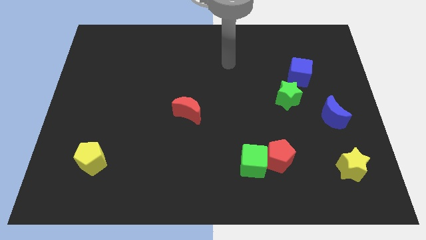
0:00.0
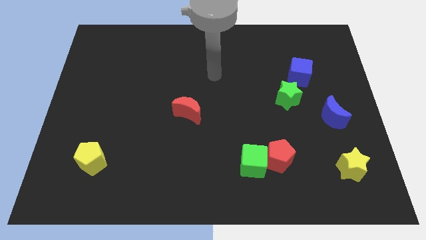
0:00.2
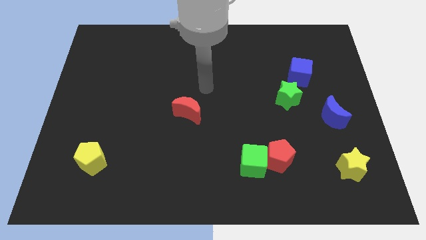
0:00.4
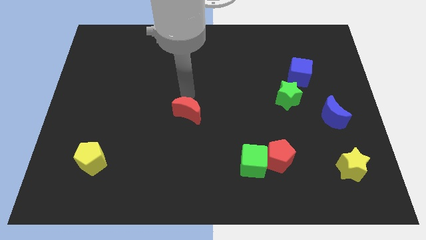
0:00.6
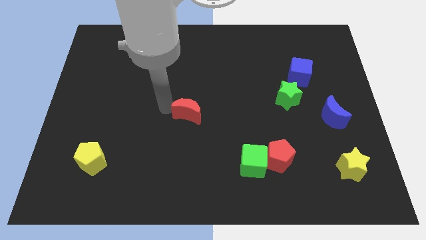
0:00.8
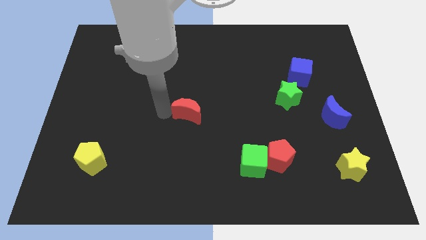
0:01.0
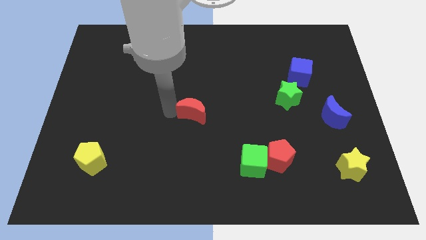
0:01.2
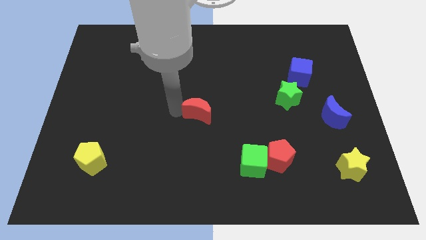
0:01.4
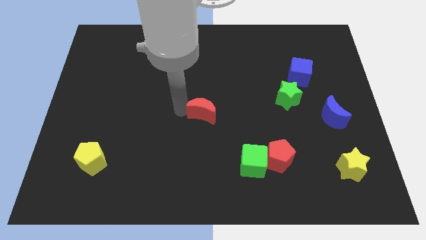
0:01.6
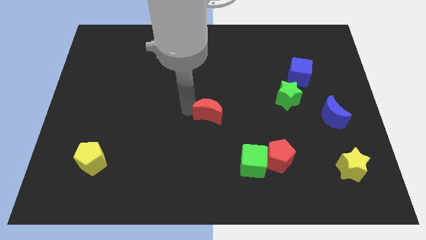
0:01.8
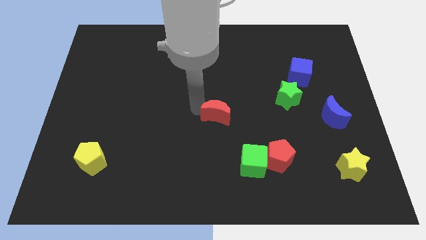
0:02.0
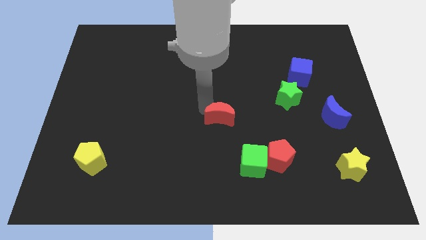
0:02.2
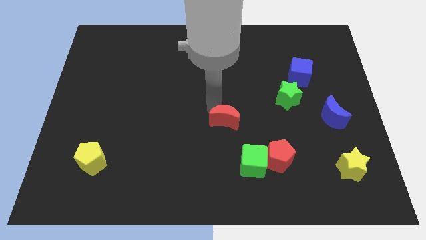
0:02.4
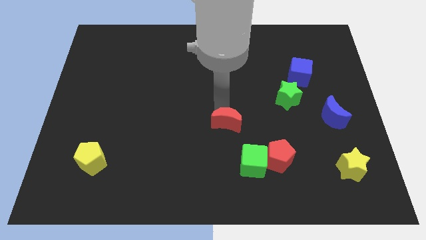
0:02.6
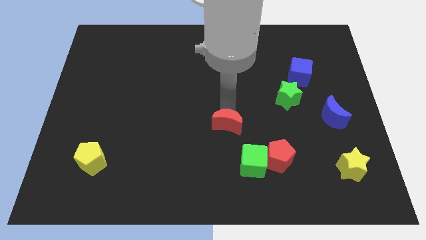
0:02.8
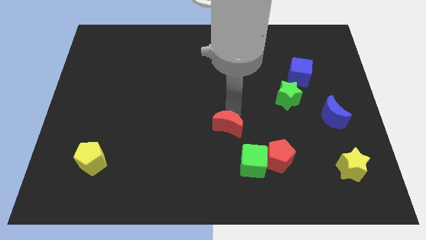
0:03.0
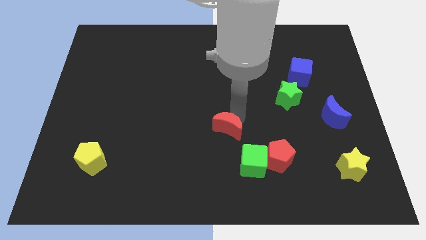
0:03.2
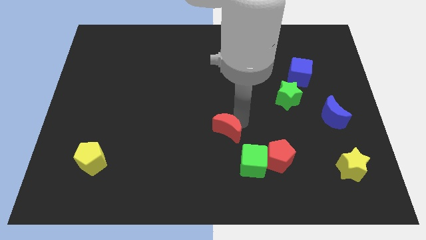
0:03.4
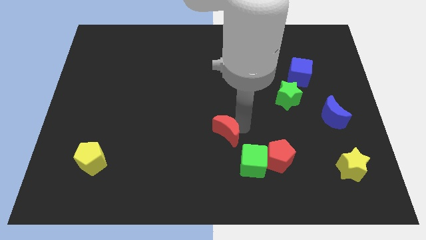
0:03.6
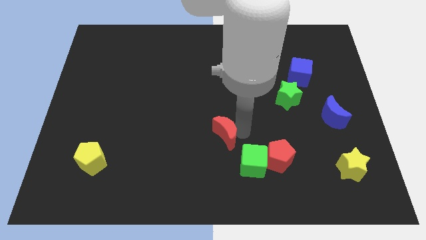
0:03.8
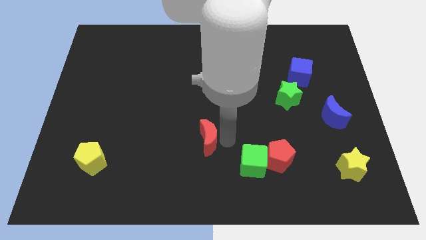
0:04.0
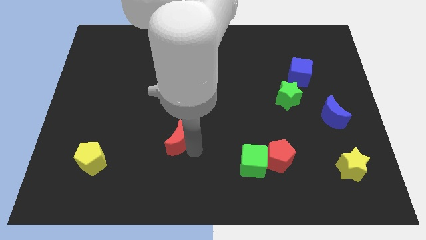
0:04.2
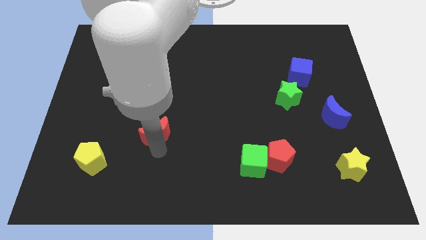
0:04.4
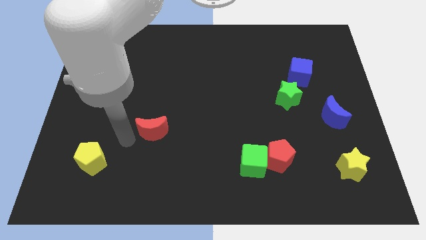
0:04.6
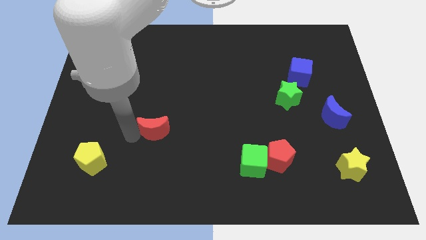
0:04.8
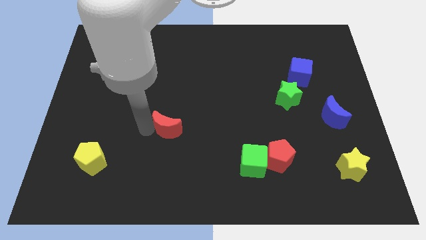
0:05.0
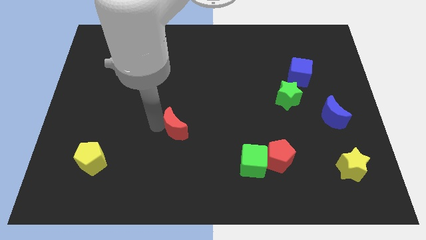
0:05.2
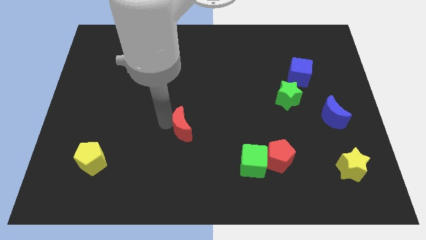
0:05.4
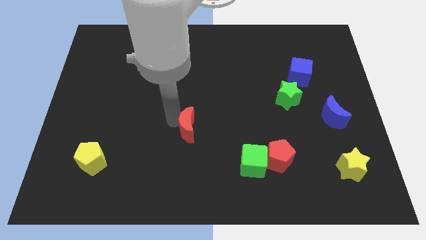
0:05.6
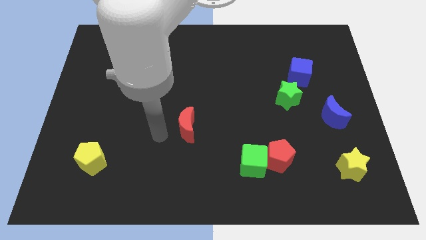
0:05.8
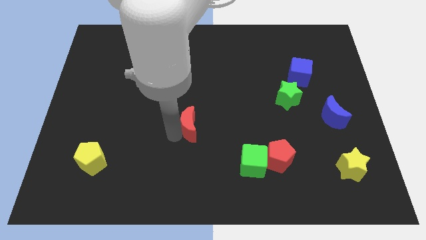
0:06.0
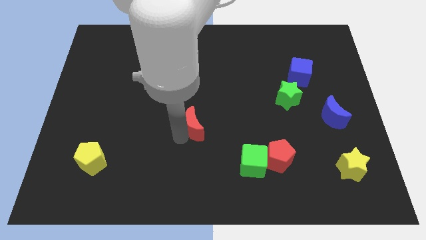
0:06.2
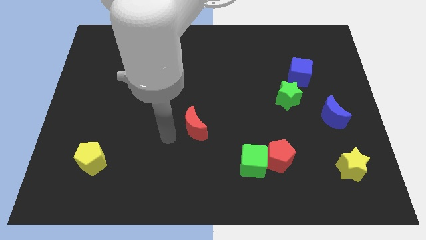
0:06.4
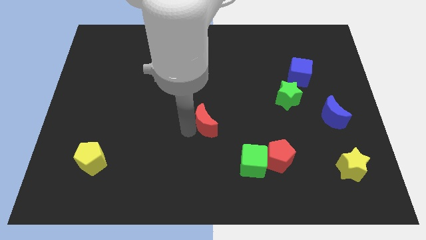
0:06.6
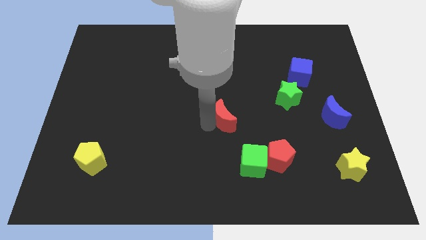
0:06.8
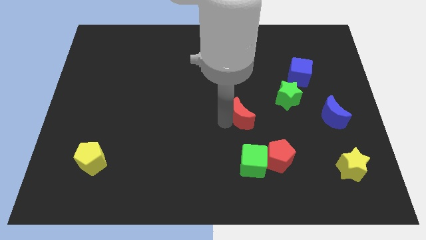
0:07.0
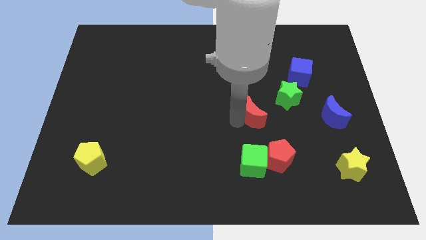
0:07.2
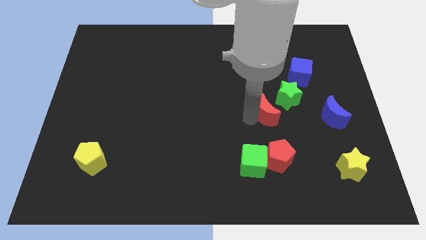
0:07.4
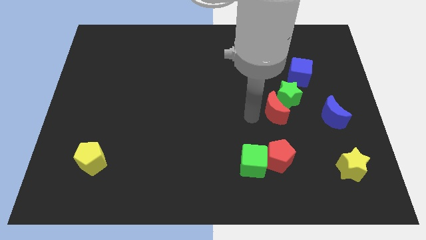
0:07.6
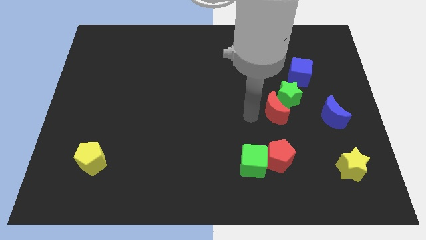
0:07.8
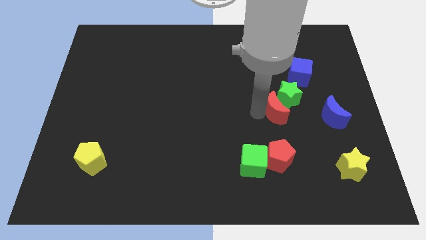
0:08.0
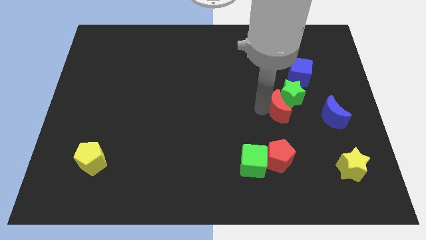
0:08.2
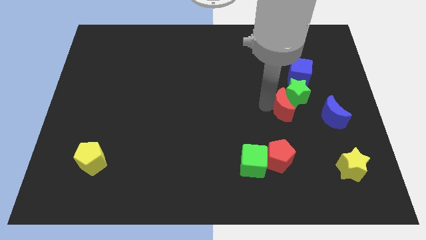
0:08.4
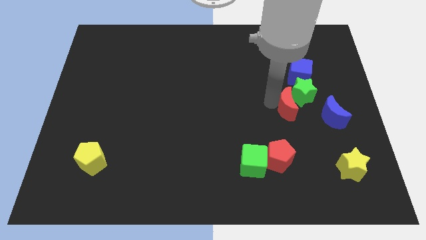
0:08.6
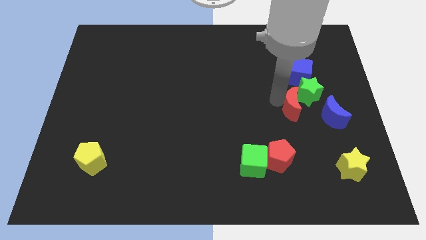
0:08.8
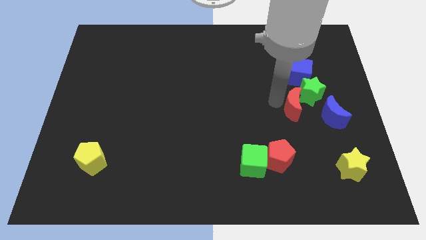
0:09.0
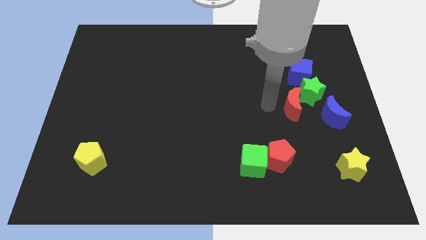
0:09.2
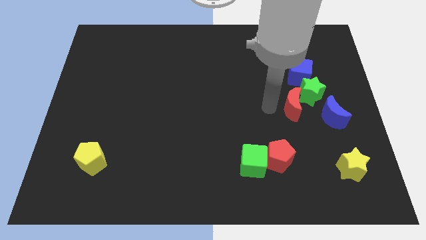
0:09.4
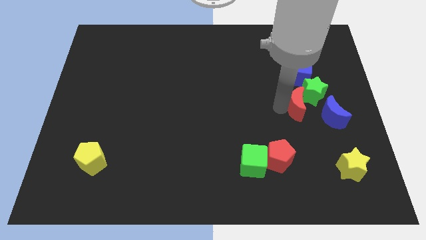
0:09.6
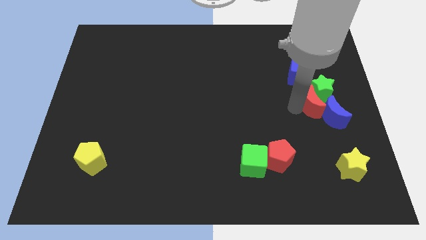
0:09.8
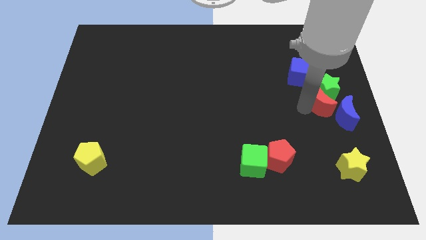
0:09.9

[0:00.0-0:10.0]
move the red moon to the right side

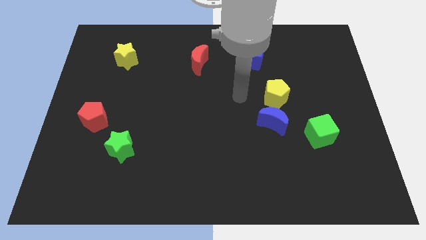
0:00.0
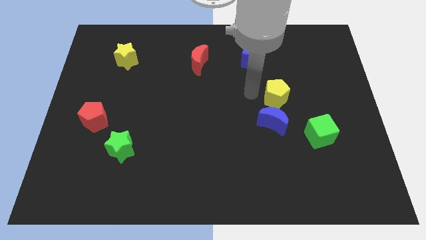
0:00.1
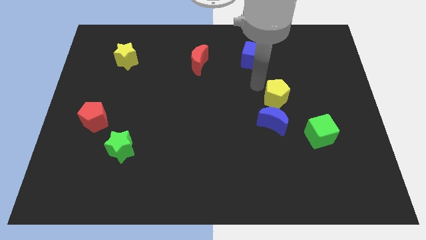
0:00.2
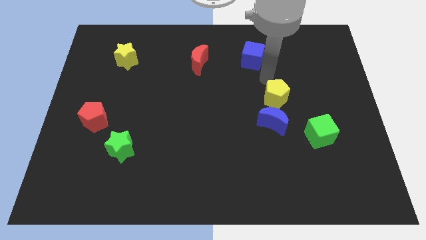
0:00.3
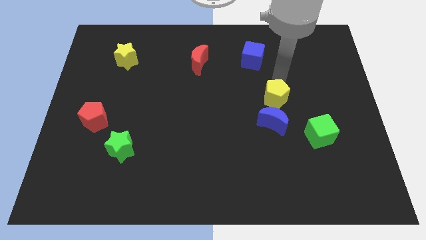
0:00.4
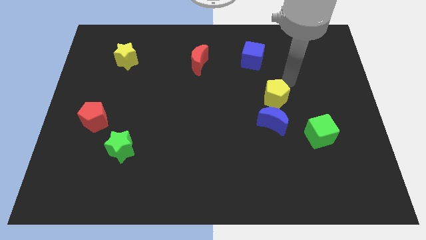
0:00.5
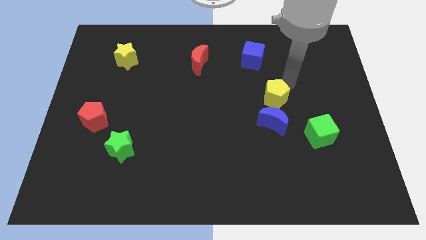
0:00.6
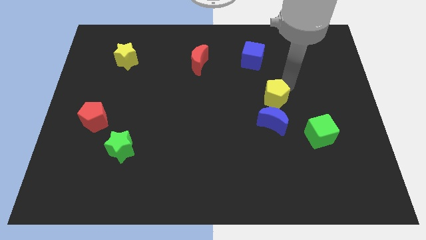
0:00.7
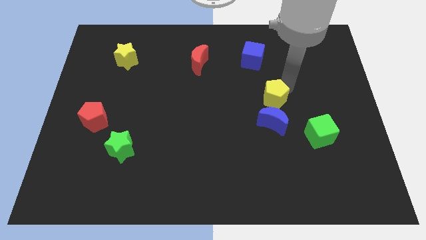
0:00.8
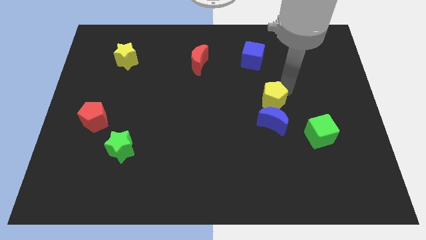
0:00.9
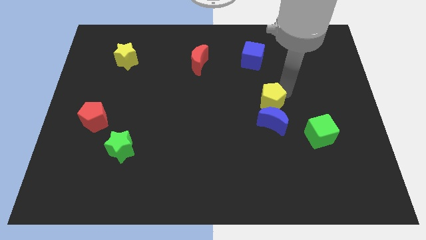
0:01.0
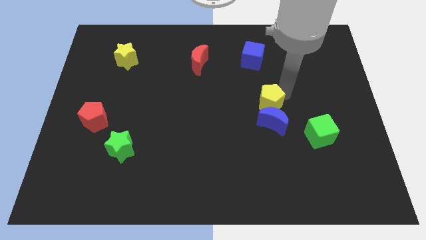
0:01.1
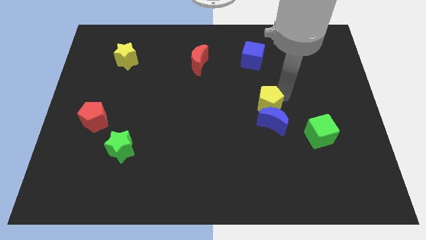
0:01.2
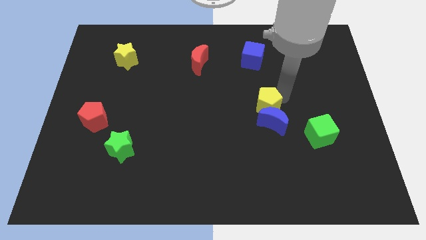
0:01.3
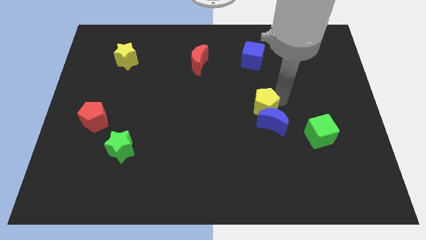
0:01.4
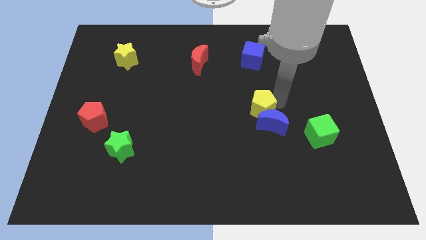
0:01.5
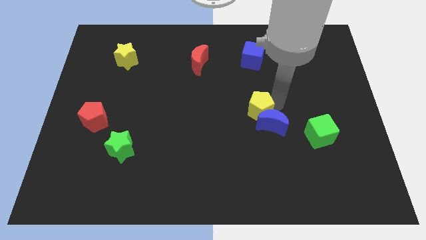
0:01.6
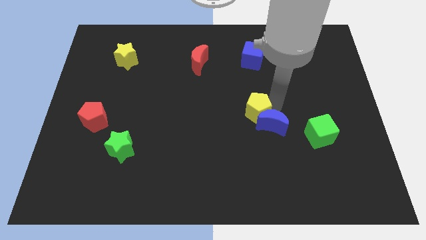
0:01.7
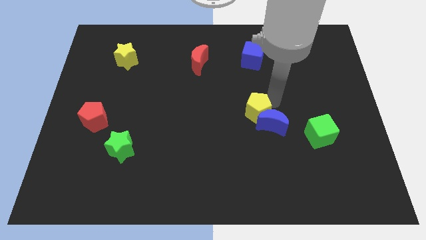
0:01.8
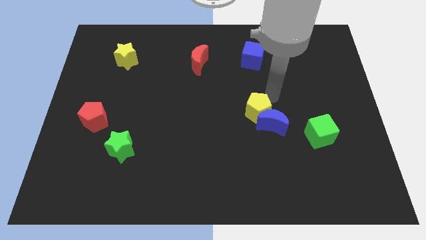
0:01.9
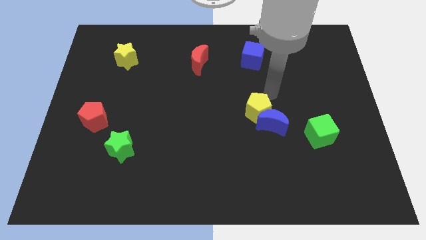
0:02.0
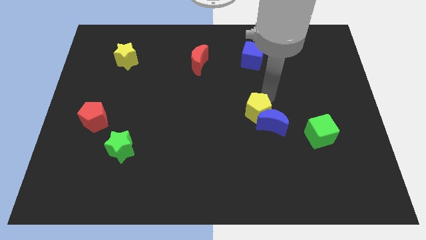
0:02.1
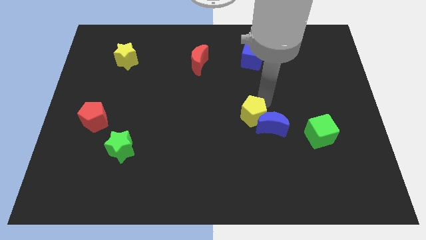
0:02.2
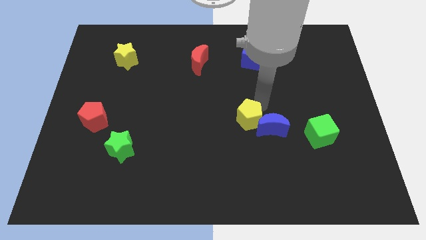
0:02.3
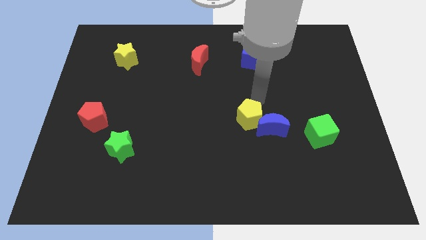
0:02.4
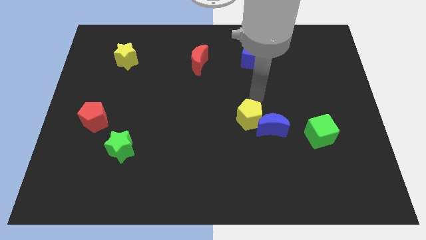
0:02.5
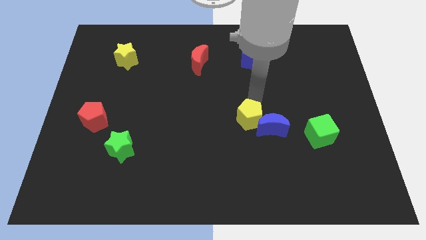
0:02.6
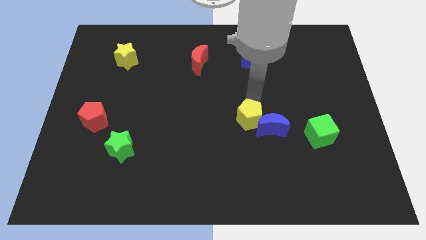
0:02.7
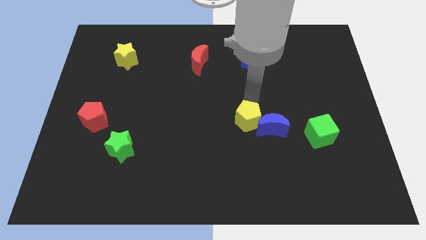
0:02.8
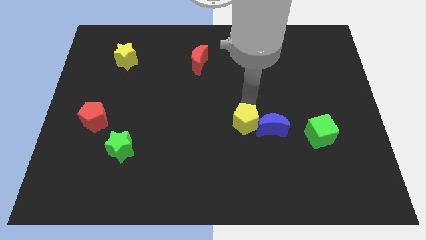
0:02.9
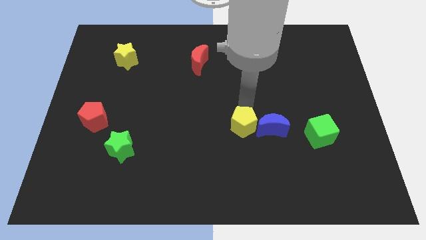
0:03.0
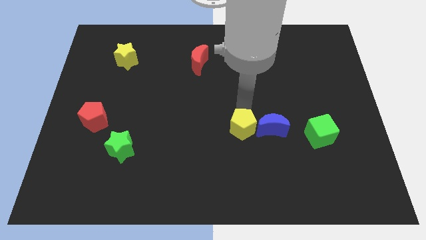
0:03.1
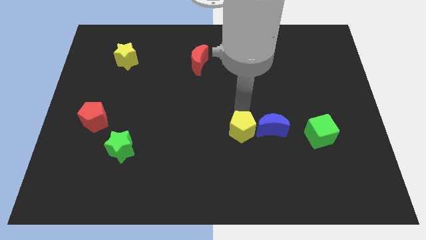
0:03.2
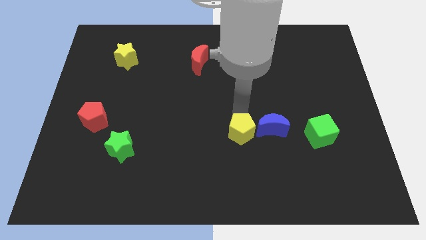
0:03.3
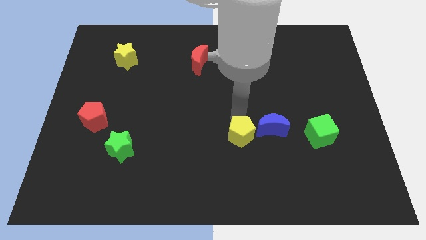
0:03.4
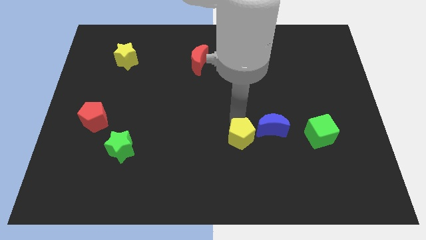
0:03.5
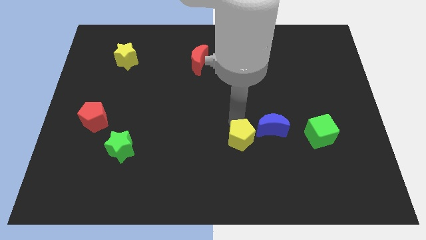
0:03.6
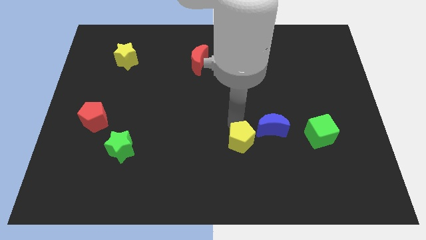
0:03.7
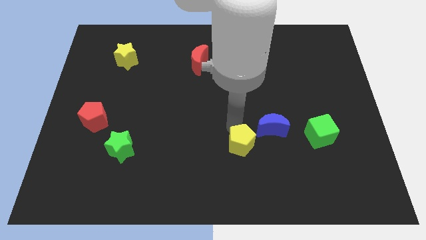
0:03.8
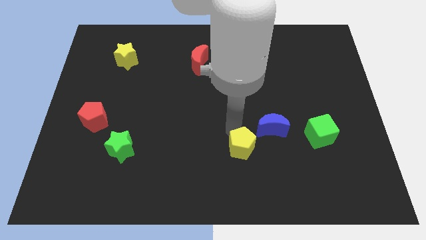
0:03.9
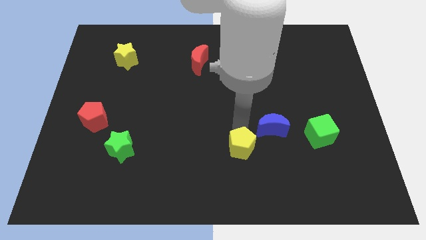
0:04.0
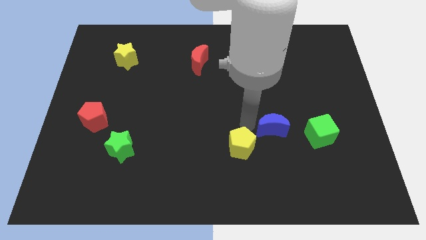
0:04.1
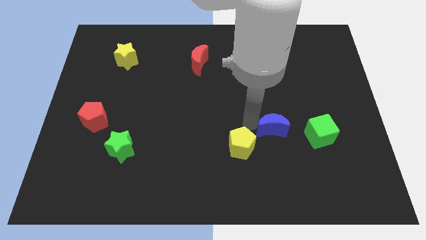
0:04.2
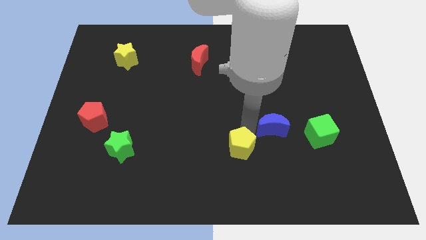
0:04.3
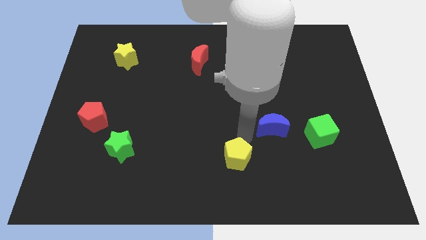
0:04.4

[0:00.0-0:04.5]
slide the yellow pentagon to the bottom side
